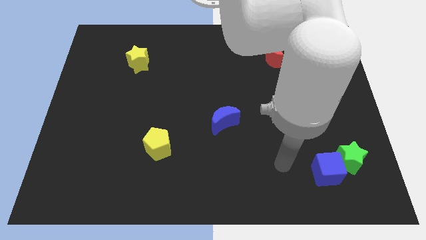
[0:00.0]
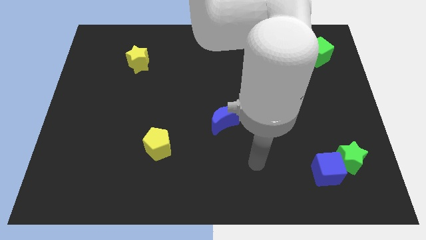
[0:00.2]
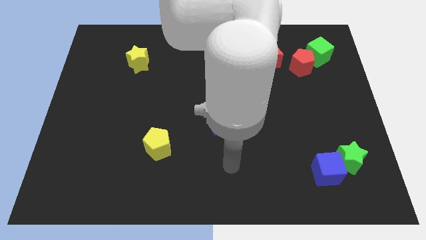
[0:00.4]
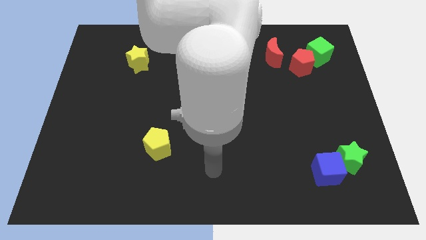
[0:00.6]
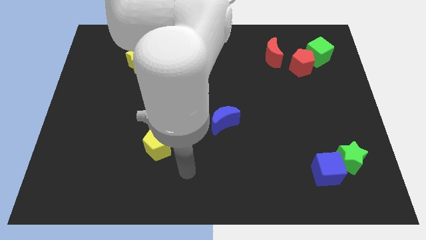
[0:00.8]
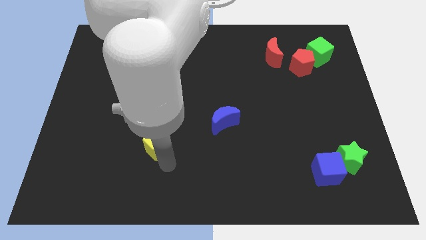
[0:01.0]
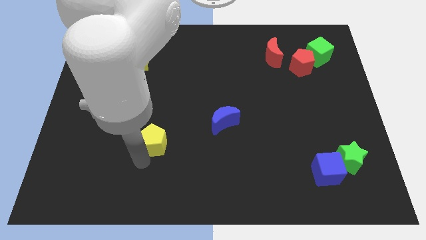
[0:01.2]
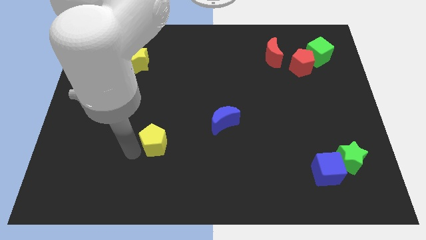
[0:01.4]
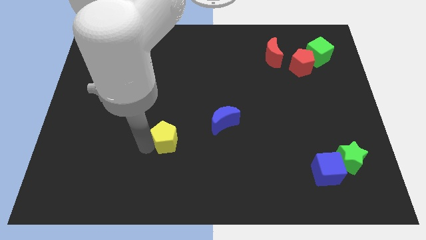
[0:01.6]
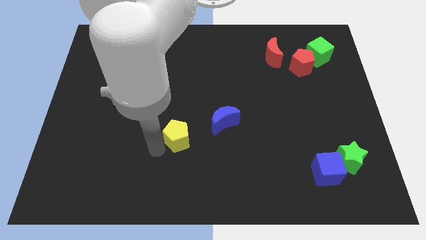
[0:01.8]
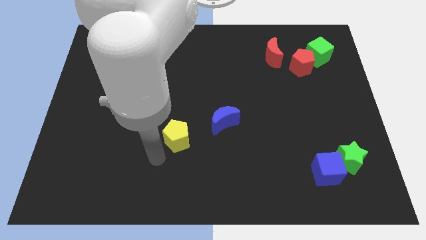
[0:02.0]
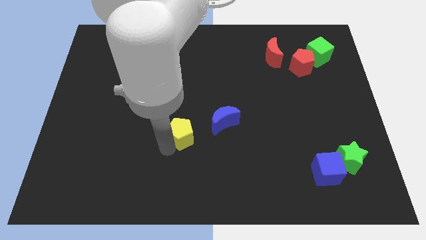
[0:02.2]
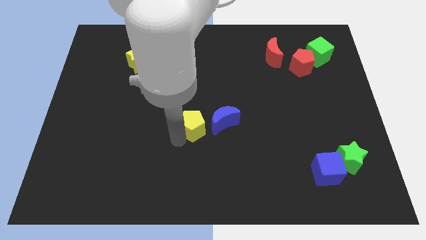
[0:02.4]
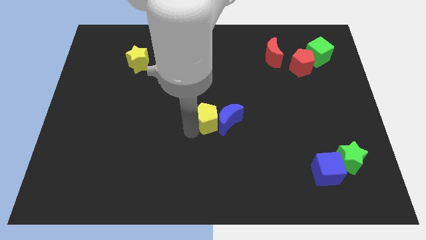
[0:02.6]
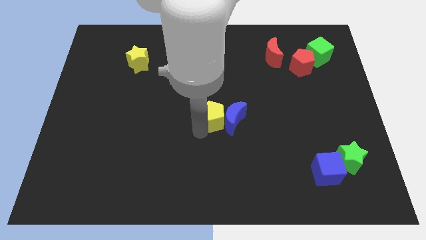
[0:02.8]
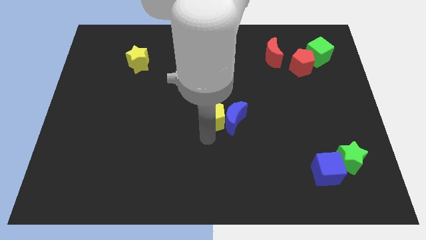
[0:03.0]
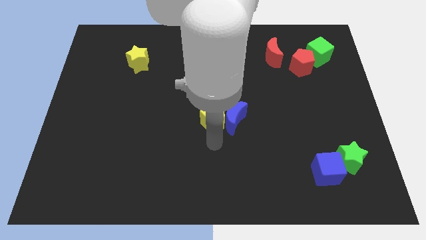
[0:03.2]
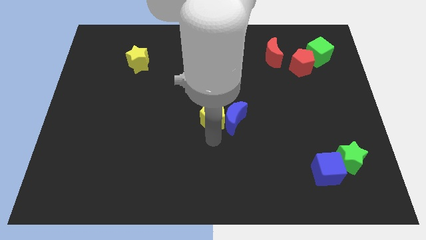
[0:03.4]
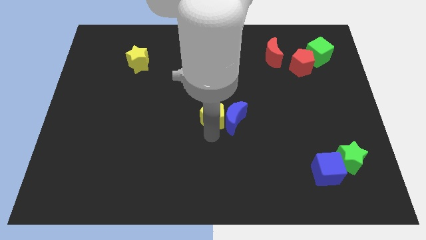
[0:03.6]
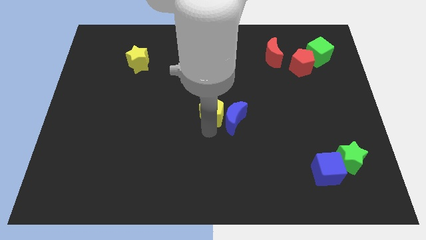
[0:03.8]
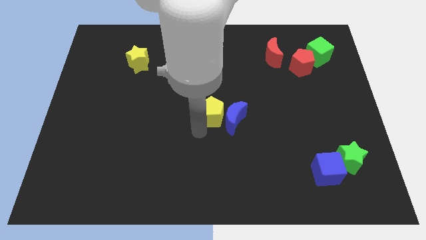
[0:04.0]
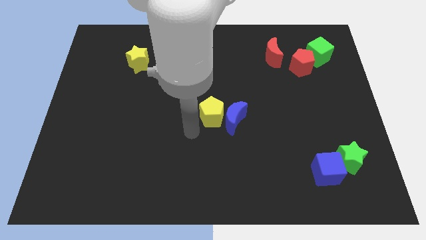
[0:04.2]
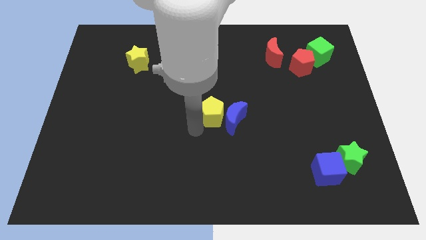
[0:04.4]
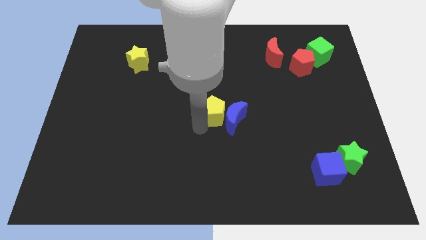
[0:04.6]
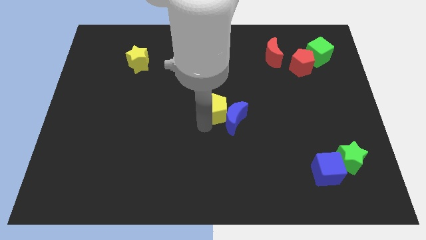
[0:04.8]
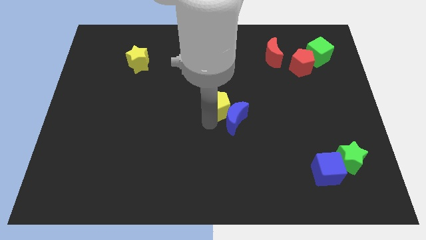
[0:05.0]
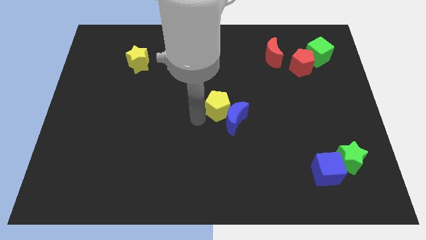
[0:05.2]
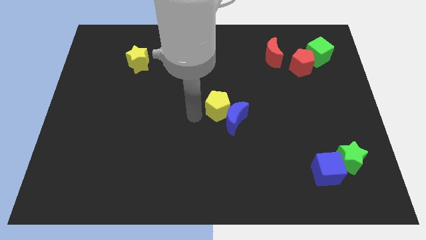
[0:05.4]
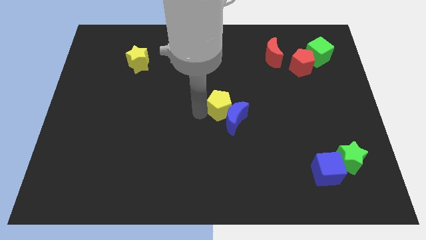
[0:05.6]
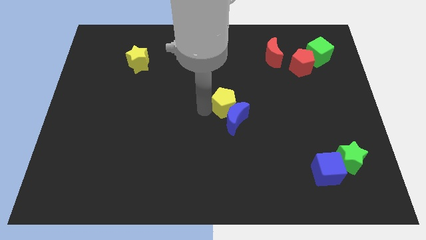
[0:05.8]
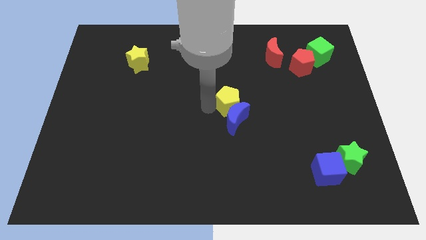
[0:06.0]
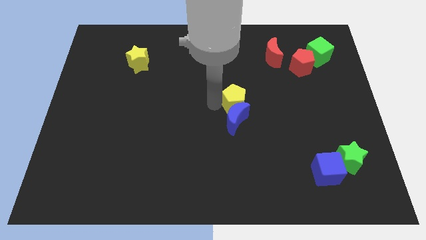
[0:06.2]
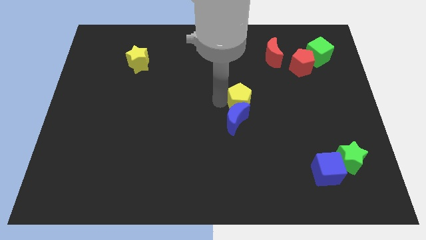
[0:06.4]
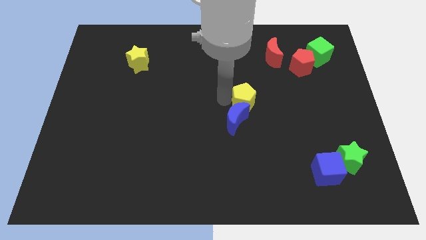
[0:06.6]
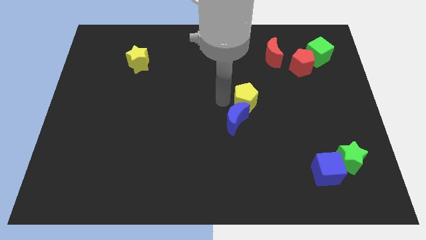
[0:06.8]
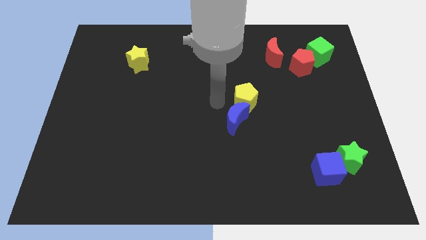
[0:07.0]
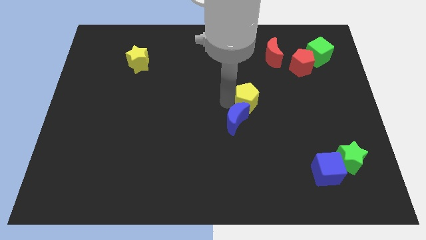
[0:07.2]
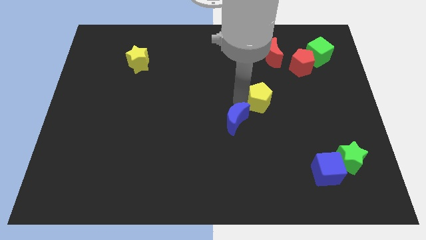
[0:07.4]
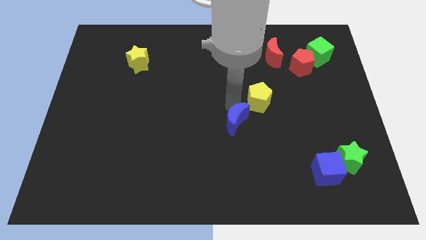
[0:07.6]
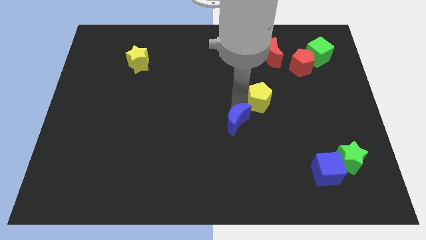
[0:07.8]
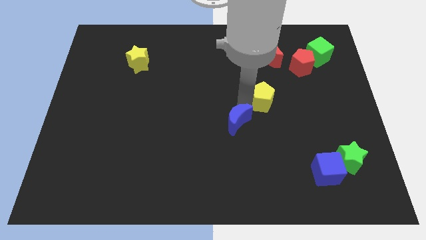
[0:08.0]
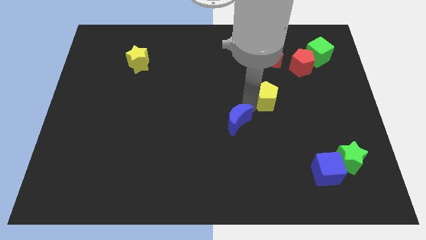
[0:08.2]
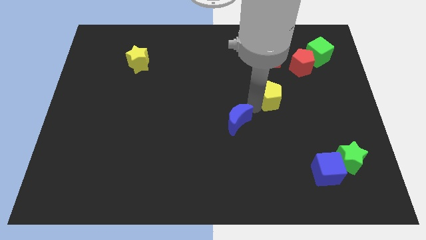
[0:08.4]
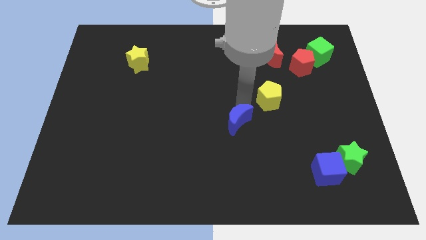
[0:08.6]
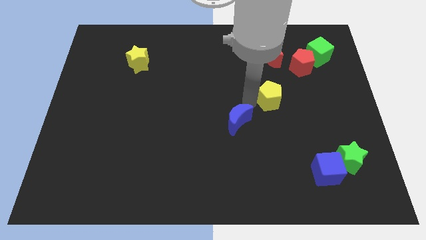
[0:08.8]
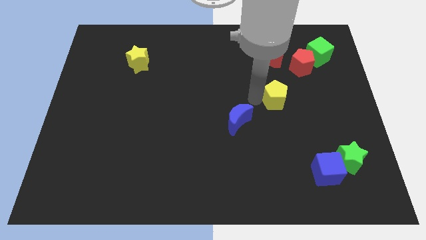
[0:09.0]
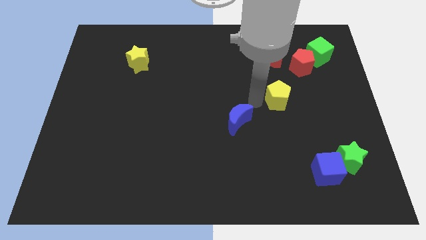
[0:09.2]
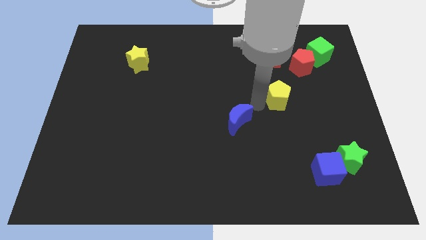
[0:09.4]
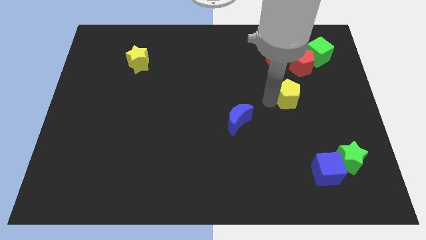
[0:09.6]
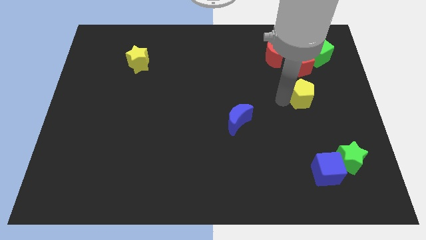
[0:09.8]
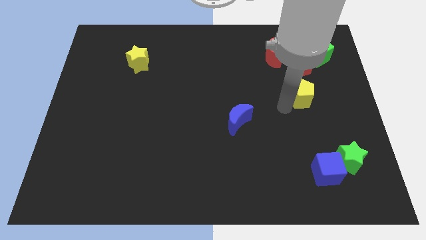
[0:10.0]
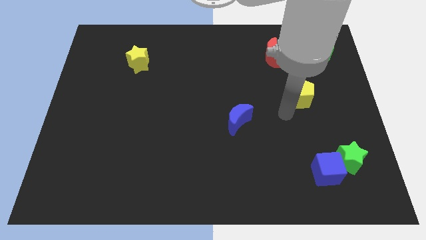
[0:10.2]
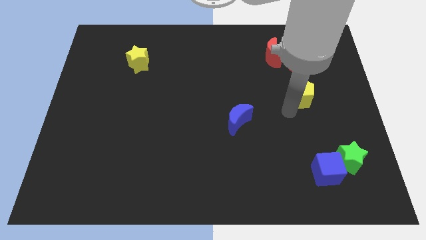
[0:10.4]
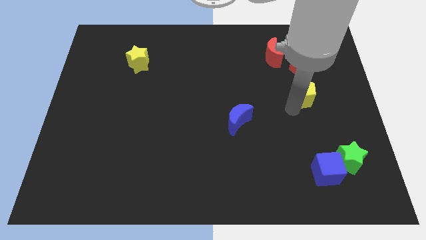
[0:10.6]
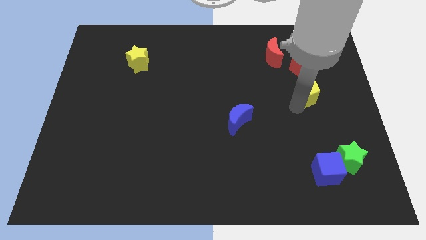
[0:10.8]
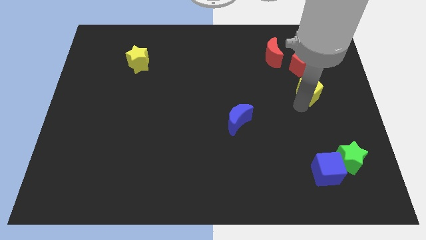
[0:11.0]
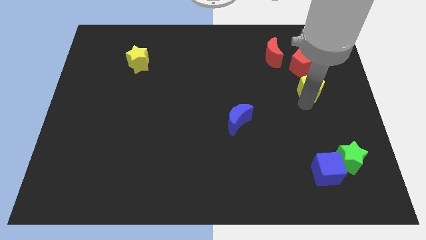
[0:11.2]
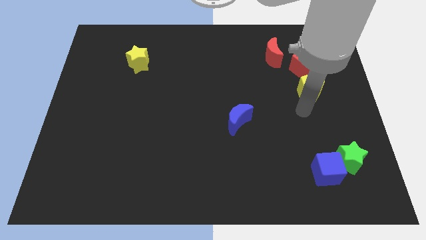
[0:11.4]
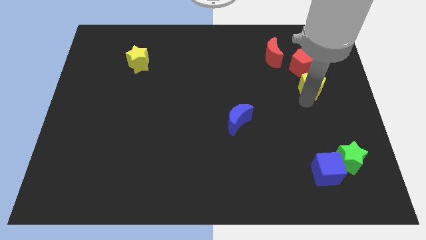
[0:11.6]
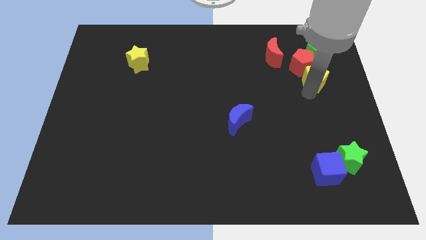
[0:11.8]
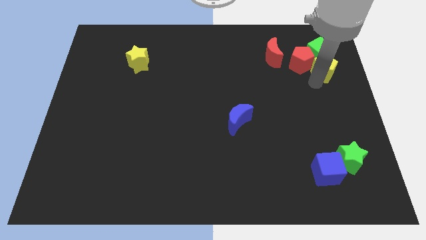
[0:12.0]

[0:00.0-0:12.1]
push the yellow pentagon to the green cube
